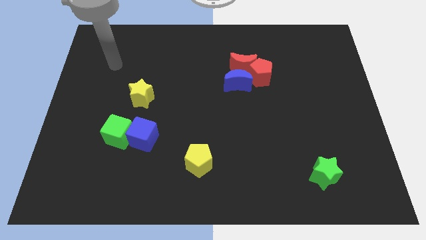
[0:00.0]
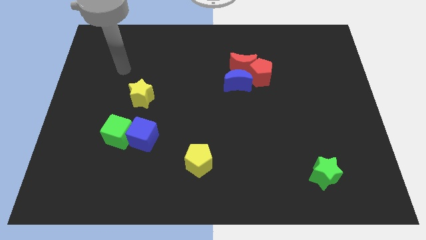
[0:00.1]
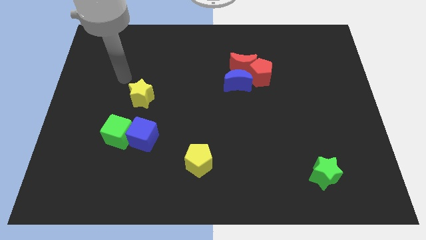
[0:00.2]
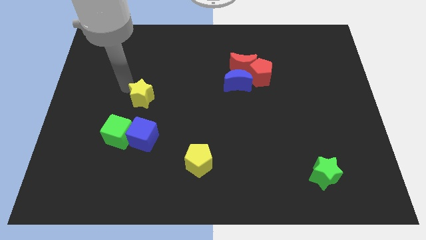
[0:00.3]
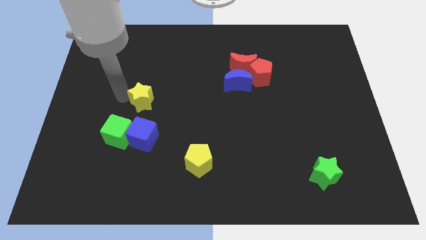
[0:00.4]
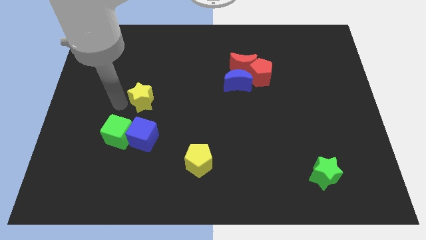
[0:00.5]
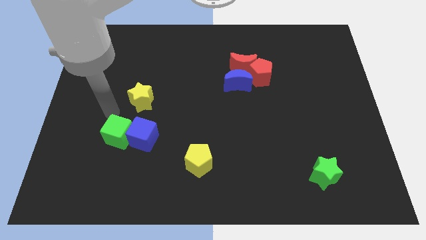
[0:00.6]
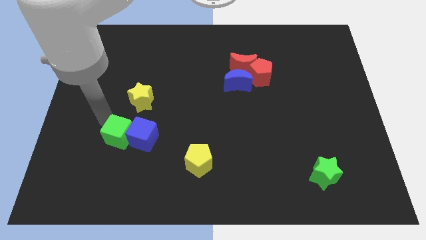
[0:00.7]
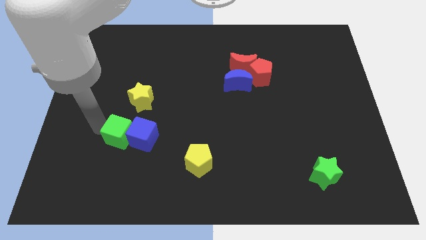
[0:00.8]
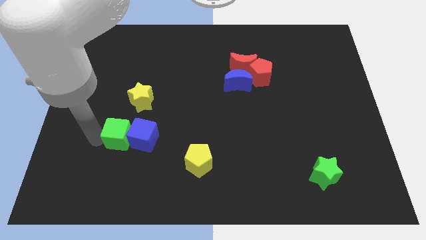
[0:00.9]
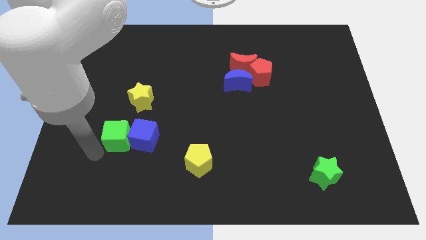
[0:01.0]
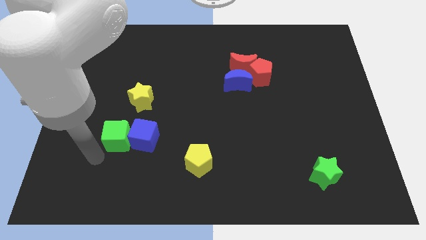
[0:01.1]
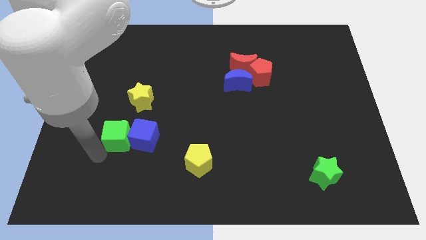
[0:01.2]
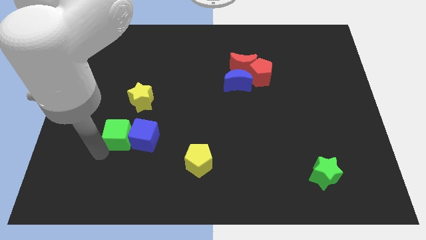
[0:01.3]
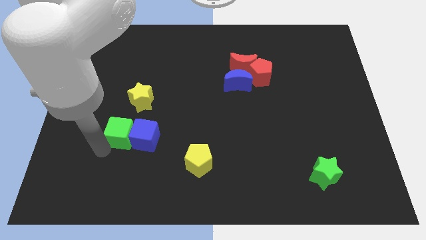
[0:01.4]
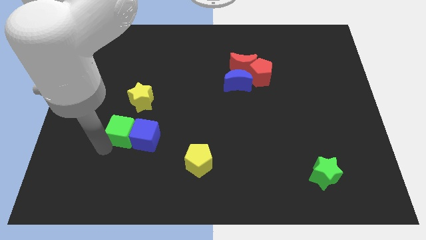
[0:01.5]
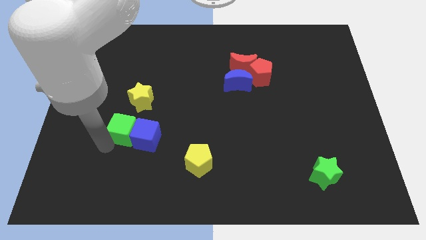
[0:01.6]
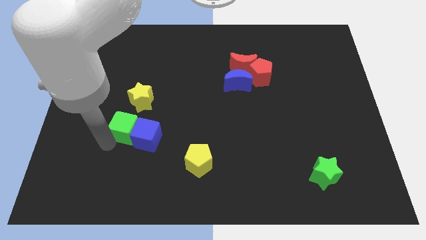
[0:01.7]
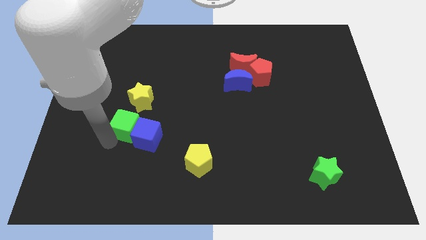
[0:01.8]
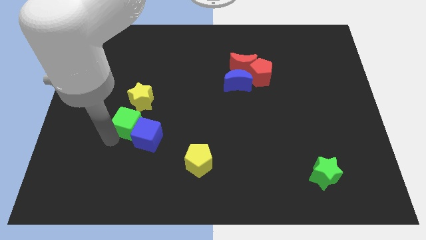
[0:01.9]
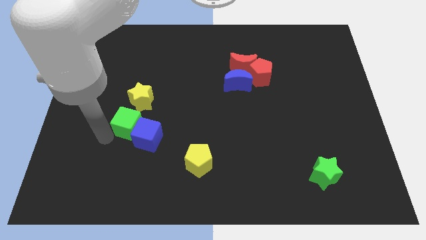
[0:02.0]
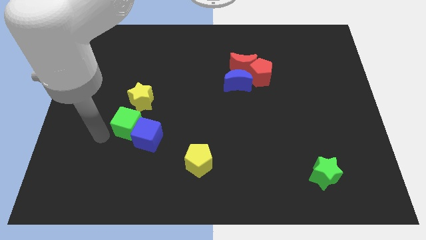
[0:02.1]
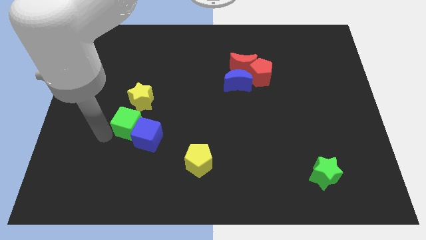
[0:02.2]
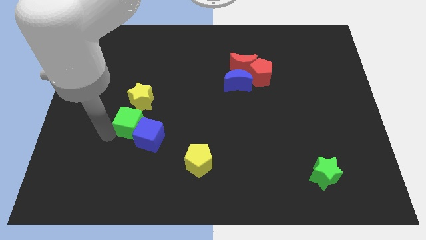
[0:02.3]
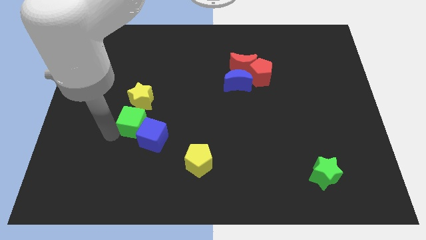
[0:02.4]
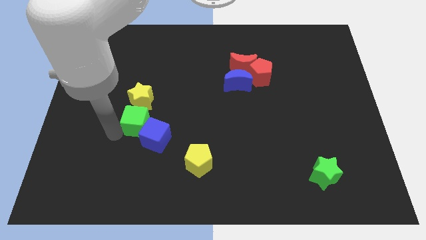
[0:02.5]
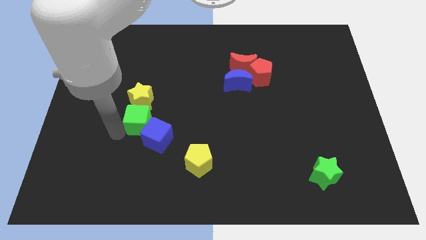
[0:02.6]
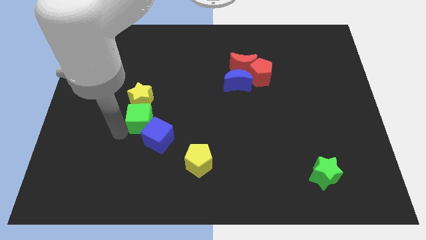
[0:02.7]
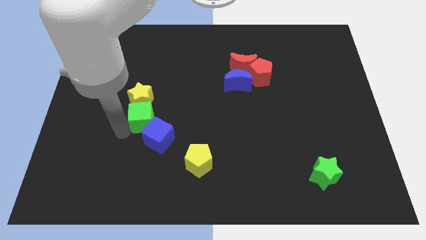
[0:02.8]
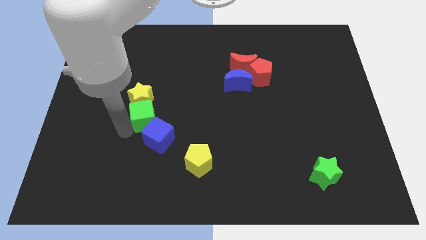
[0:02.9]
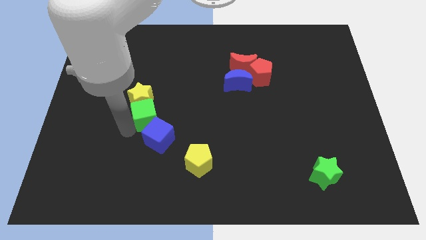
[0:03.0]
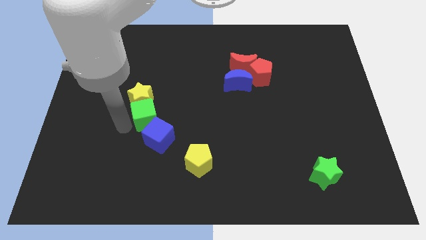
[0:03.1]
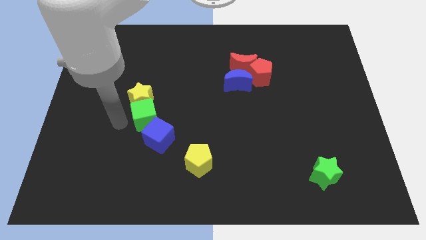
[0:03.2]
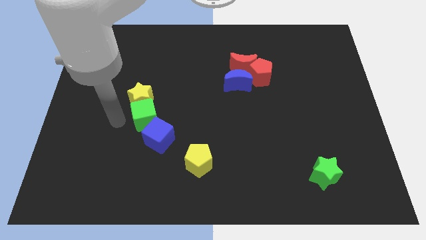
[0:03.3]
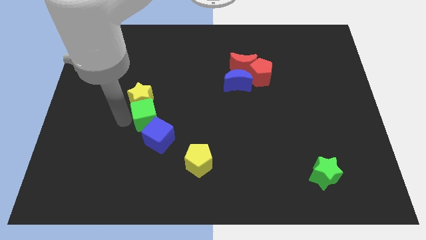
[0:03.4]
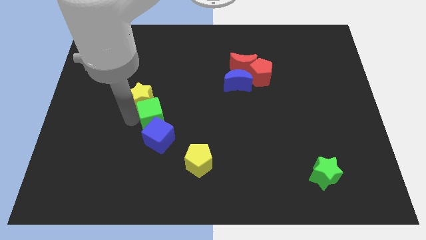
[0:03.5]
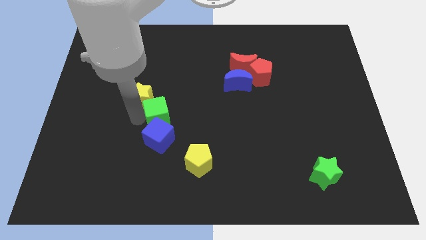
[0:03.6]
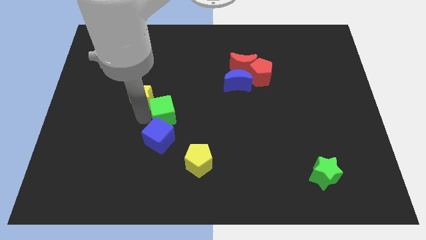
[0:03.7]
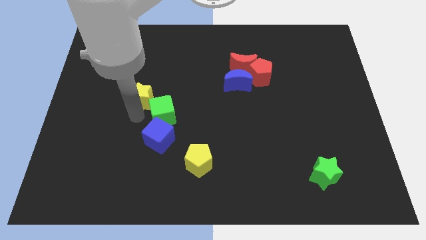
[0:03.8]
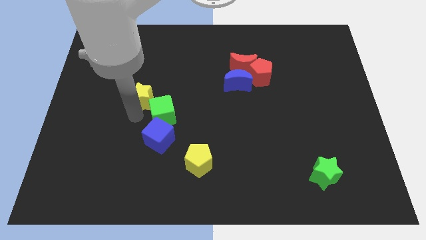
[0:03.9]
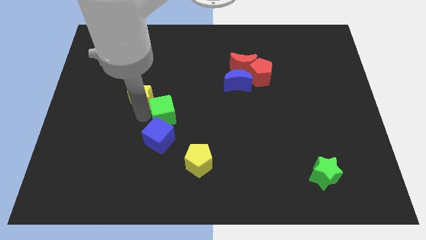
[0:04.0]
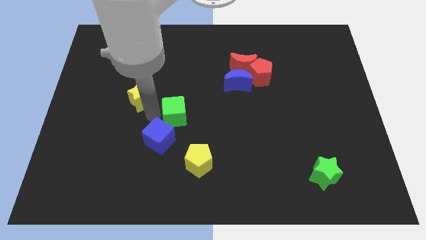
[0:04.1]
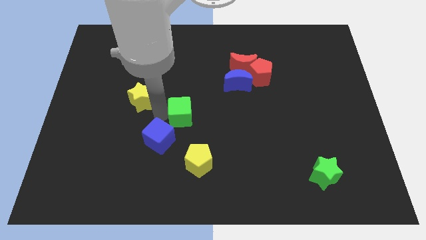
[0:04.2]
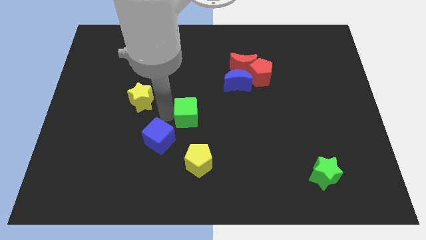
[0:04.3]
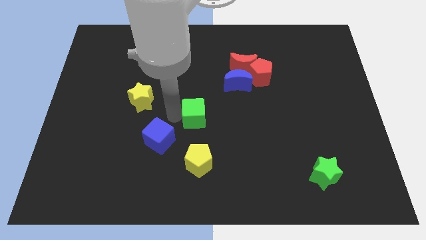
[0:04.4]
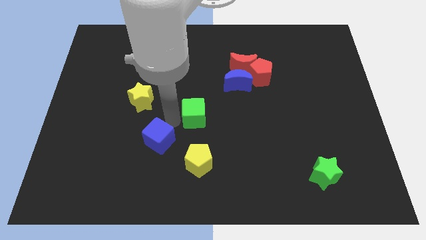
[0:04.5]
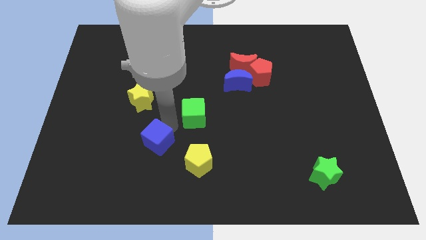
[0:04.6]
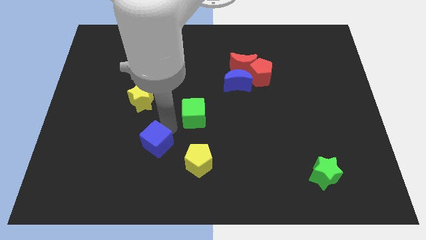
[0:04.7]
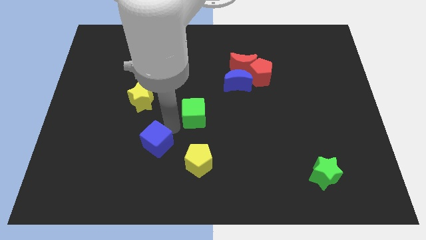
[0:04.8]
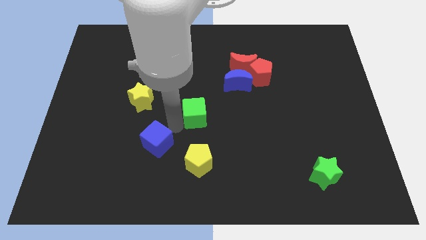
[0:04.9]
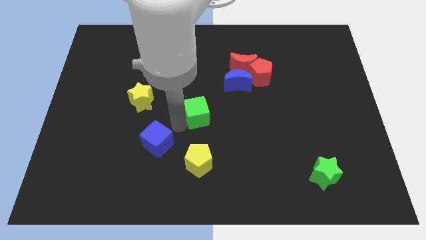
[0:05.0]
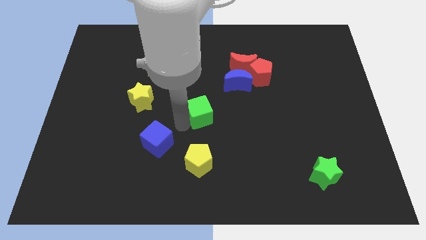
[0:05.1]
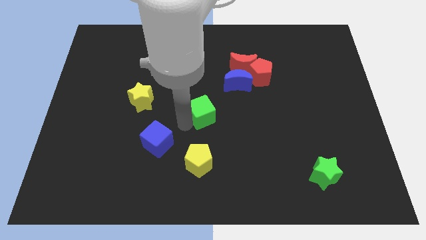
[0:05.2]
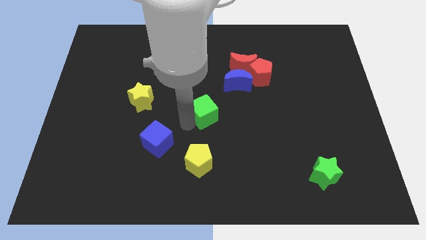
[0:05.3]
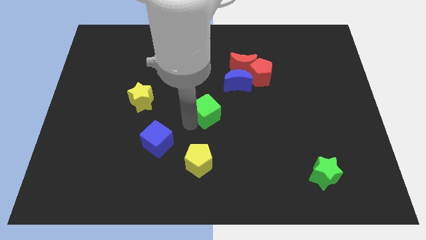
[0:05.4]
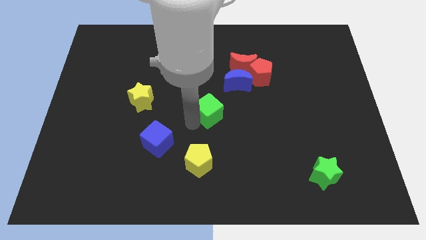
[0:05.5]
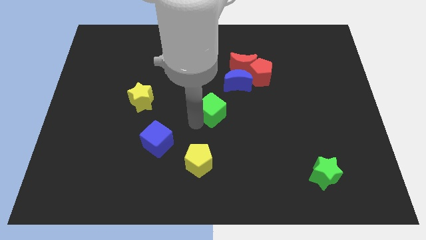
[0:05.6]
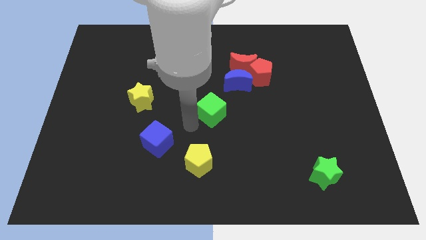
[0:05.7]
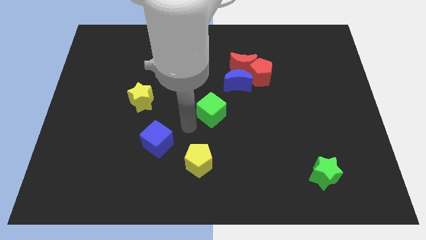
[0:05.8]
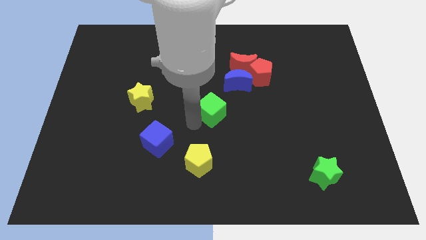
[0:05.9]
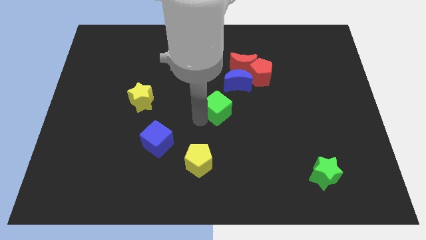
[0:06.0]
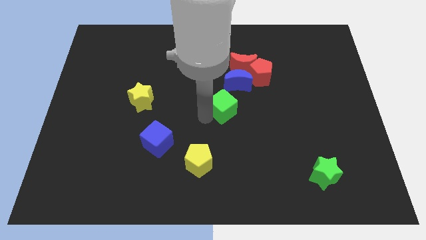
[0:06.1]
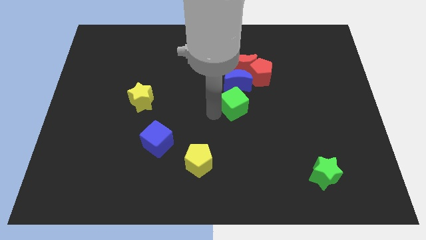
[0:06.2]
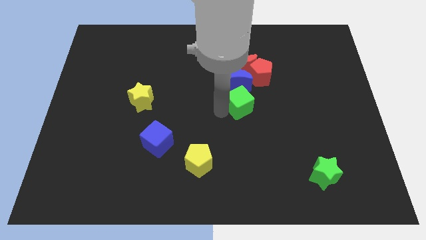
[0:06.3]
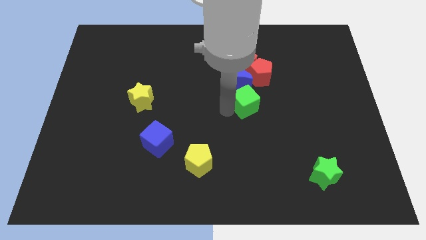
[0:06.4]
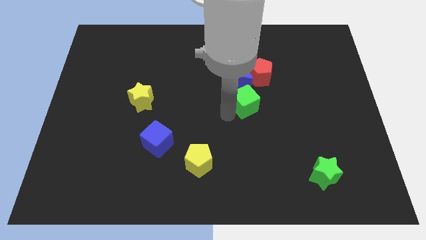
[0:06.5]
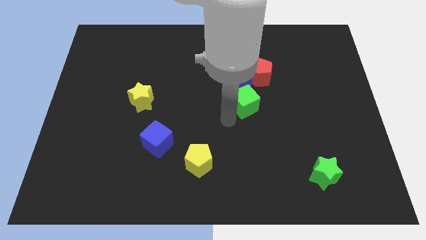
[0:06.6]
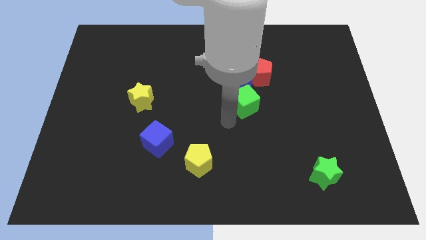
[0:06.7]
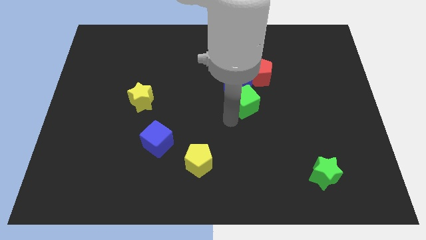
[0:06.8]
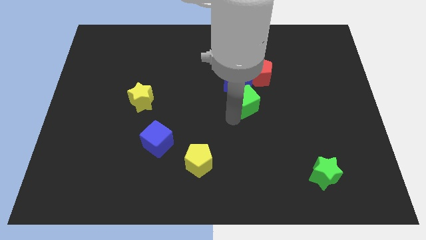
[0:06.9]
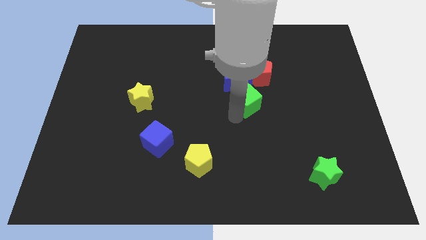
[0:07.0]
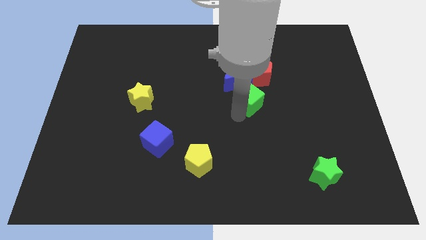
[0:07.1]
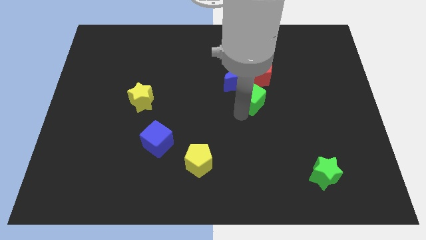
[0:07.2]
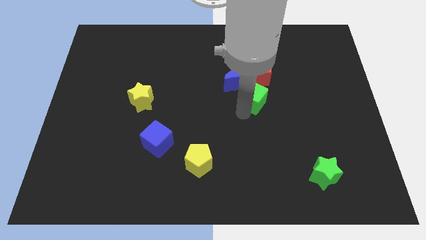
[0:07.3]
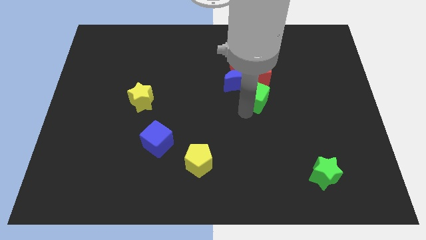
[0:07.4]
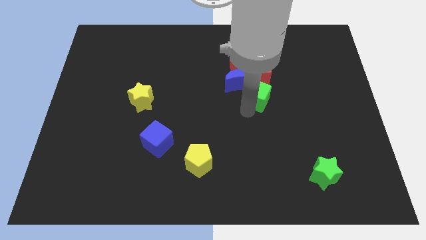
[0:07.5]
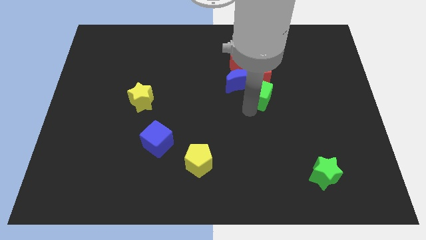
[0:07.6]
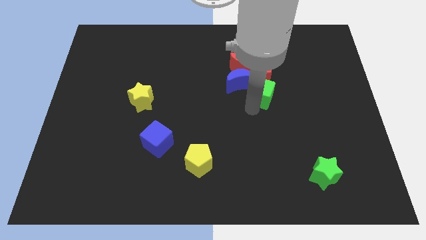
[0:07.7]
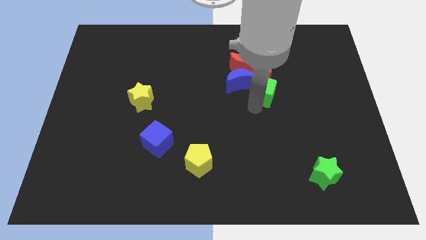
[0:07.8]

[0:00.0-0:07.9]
put the green cube towards the red pentagon
